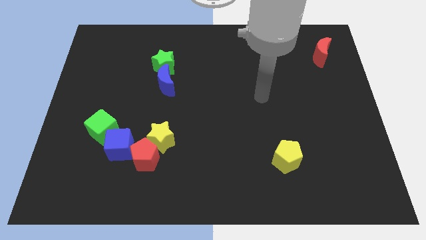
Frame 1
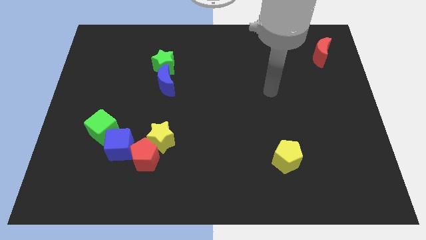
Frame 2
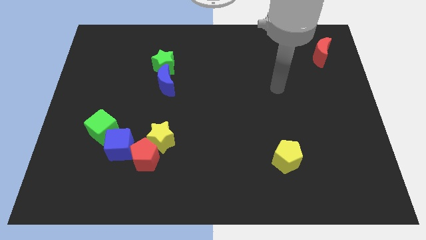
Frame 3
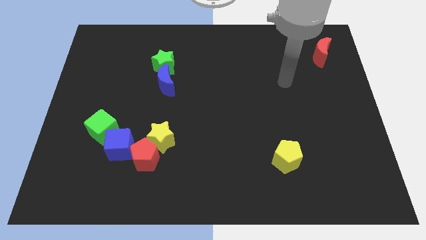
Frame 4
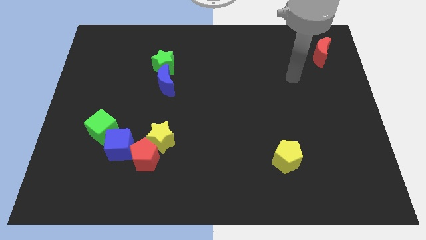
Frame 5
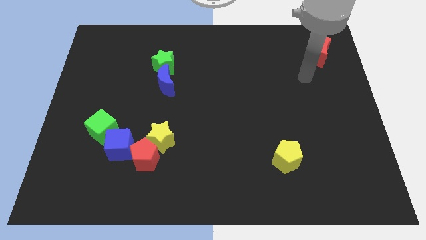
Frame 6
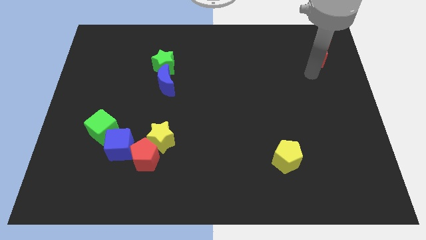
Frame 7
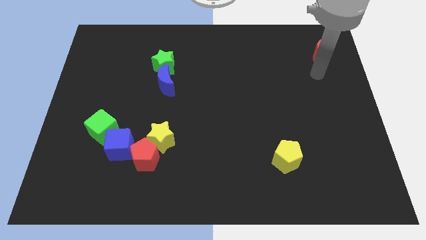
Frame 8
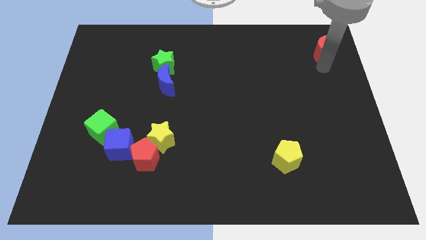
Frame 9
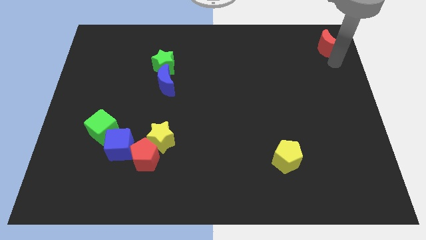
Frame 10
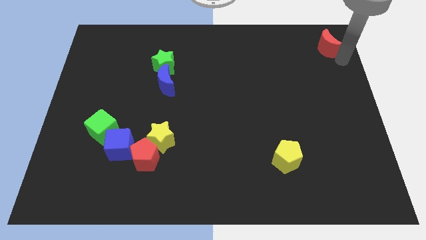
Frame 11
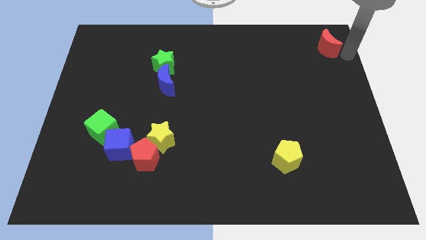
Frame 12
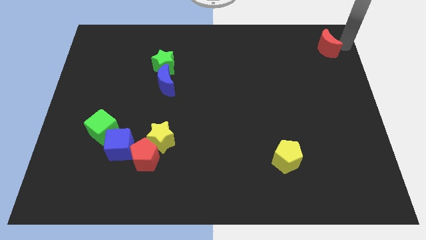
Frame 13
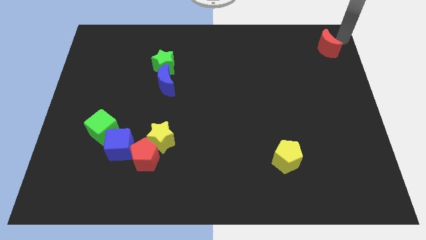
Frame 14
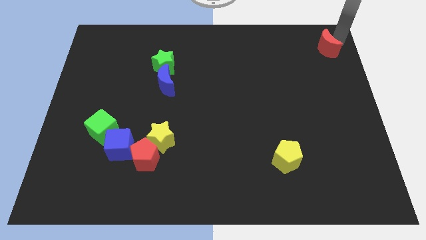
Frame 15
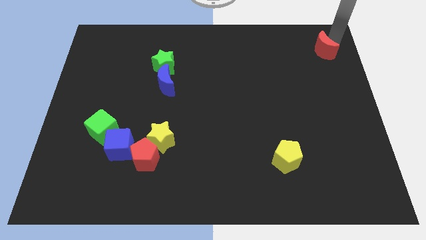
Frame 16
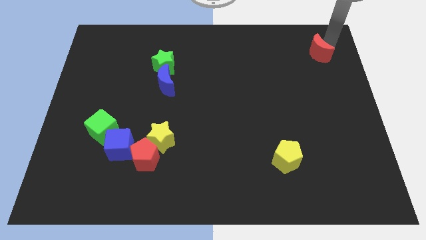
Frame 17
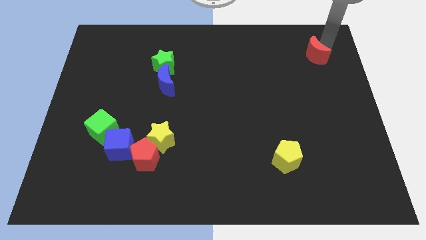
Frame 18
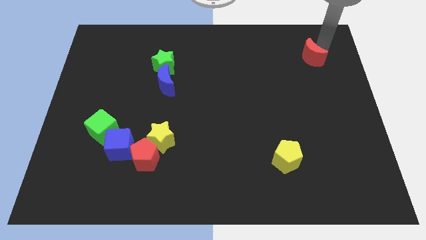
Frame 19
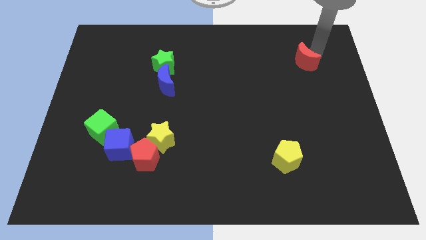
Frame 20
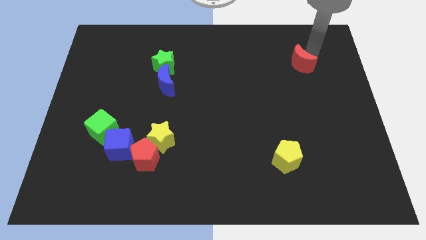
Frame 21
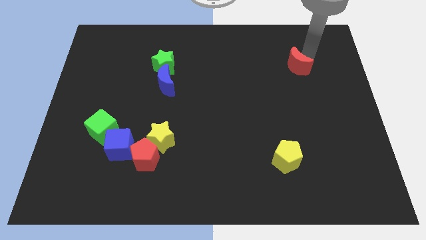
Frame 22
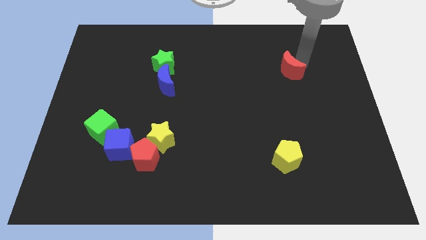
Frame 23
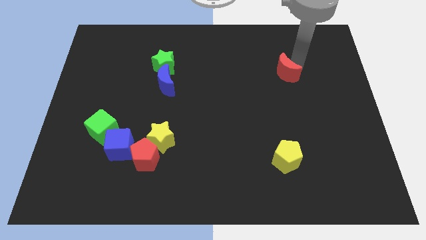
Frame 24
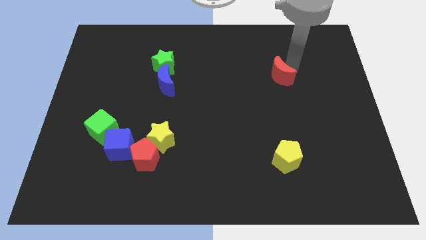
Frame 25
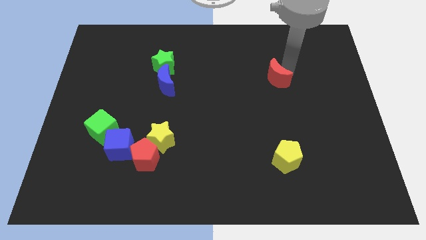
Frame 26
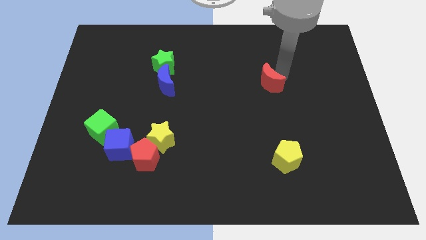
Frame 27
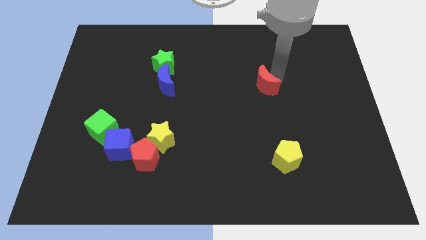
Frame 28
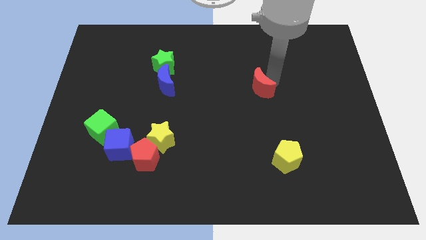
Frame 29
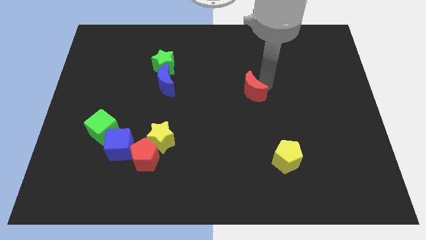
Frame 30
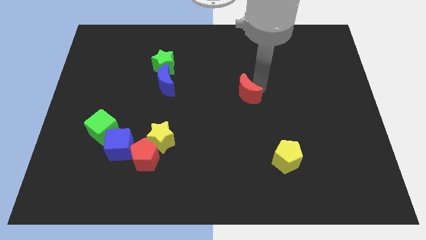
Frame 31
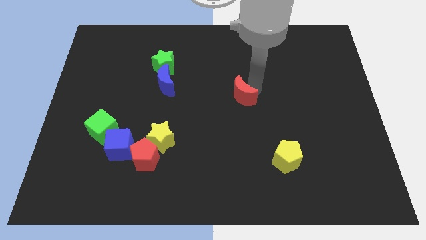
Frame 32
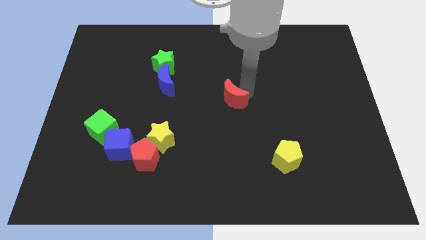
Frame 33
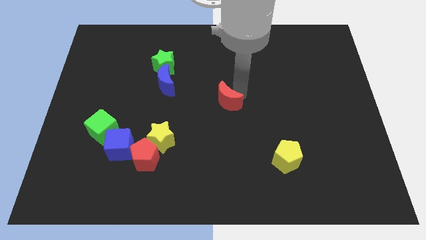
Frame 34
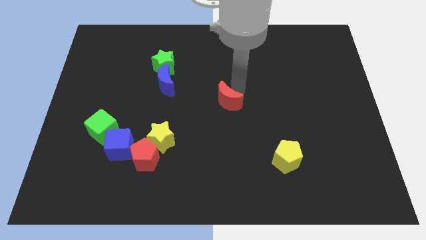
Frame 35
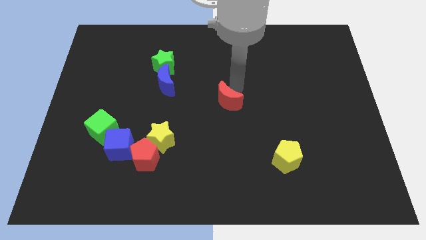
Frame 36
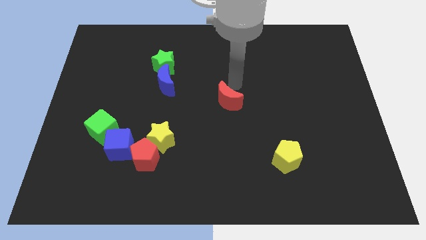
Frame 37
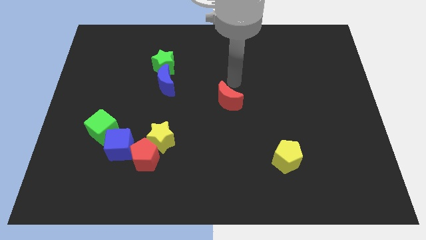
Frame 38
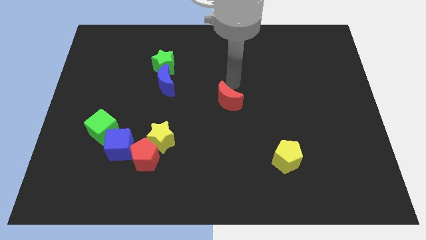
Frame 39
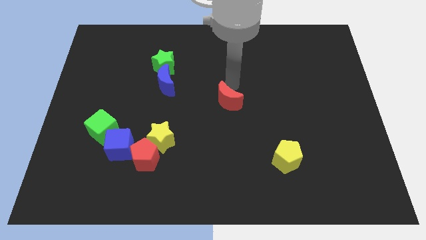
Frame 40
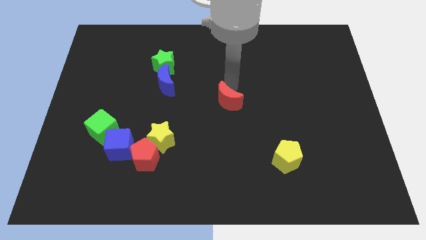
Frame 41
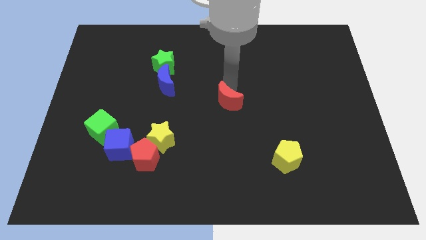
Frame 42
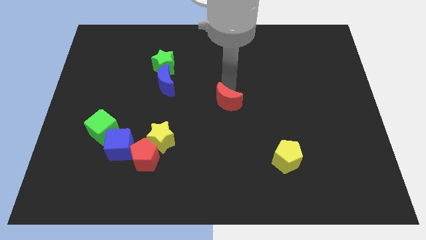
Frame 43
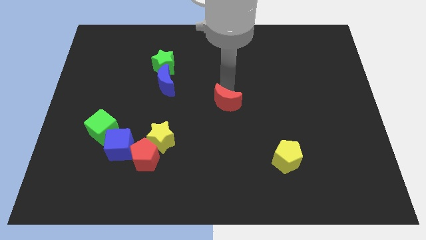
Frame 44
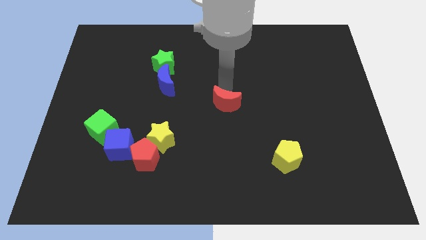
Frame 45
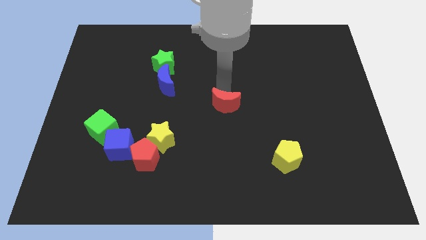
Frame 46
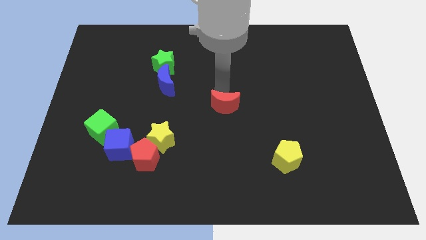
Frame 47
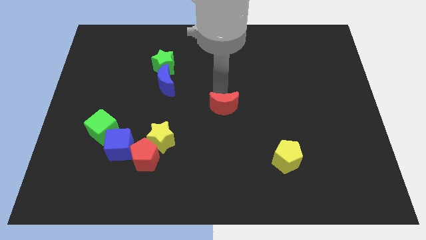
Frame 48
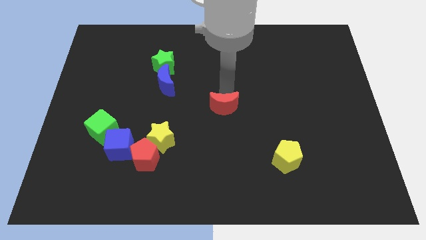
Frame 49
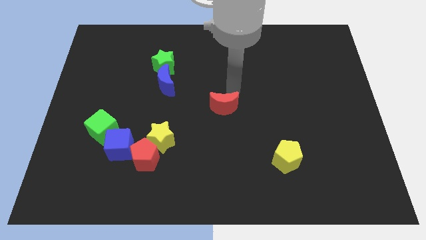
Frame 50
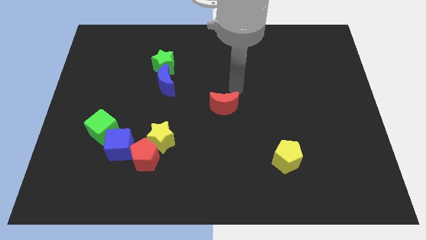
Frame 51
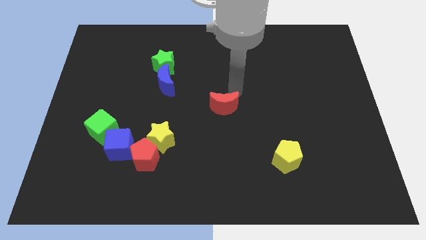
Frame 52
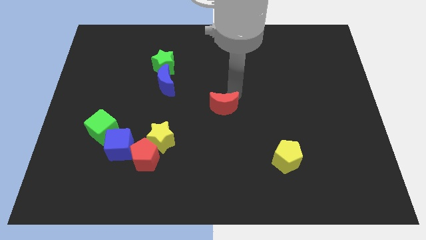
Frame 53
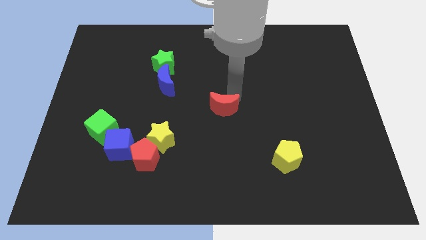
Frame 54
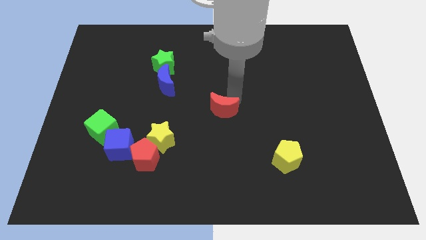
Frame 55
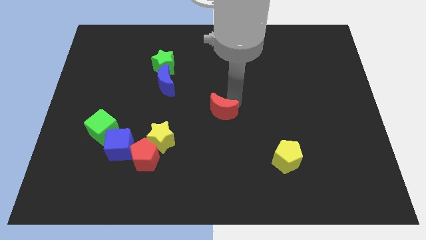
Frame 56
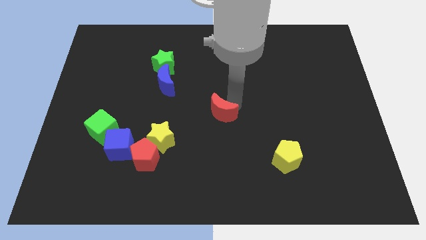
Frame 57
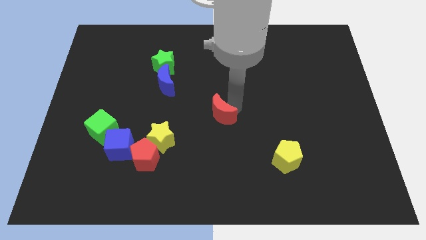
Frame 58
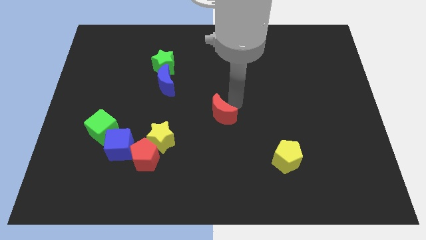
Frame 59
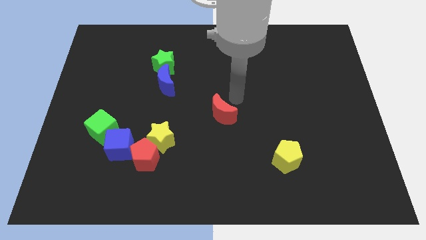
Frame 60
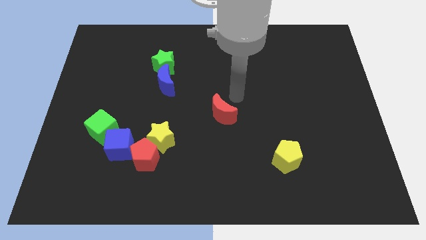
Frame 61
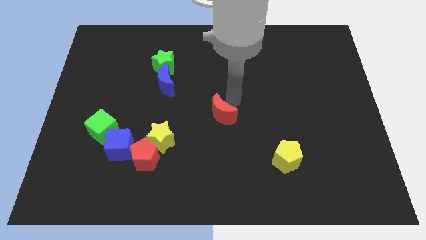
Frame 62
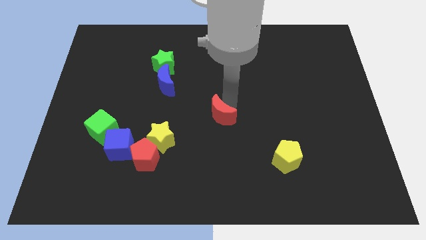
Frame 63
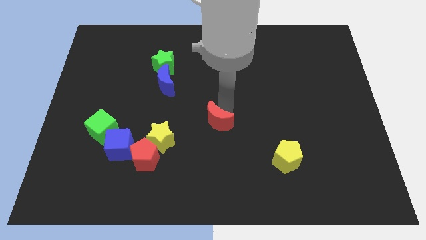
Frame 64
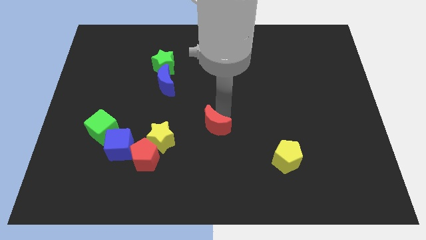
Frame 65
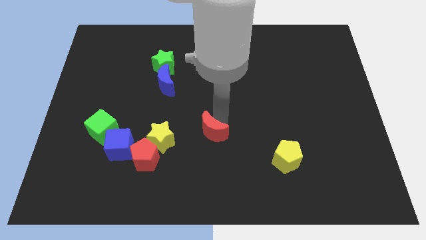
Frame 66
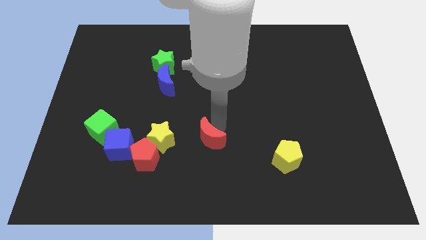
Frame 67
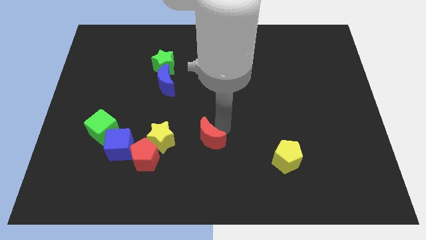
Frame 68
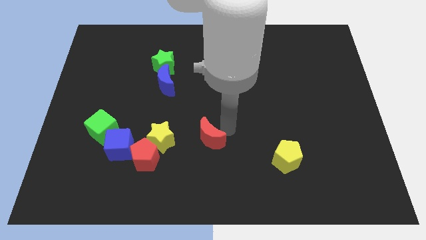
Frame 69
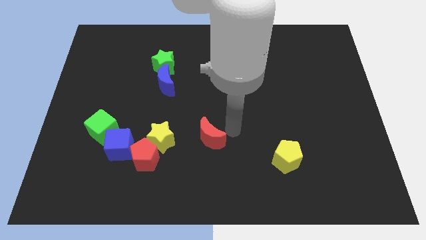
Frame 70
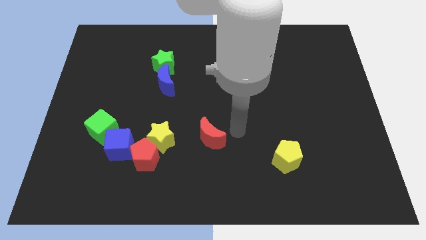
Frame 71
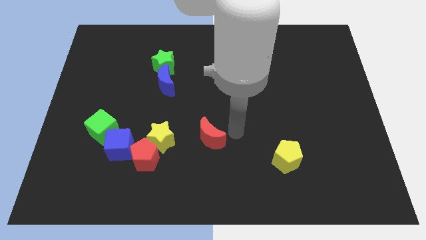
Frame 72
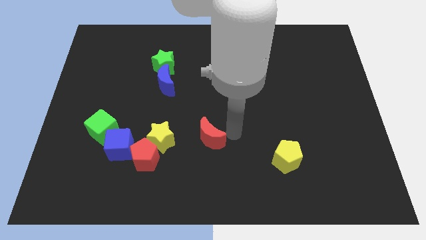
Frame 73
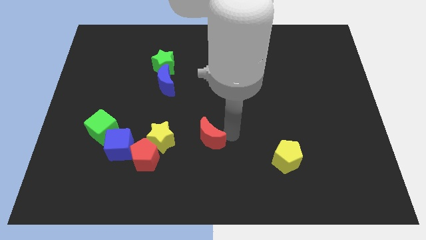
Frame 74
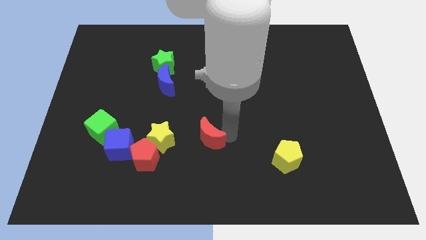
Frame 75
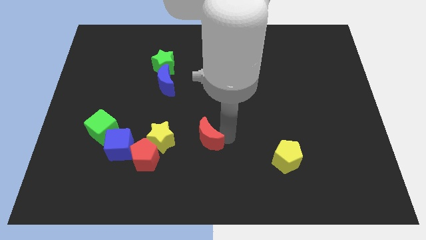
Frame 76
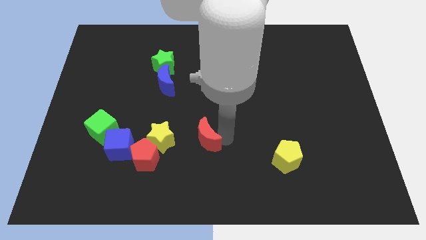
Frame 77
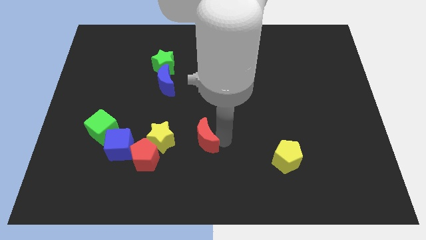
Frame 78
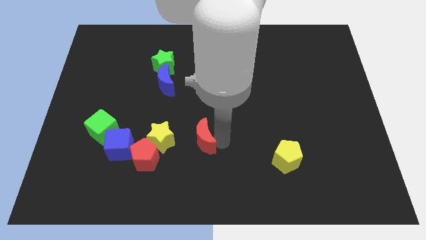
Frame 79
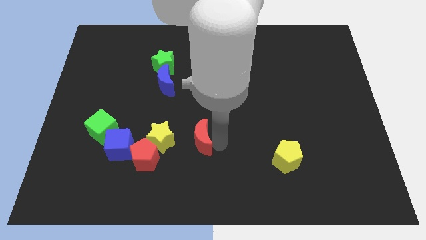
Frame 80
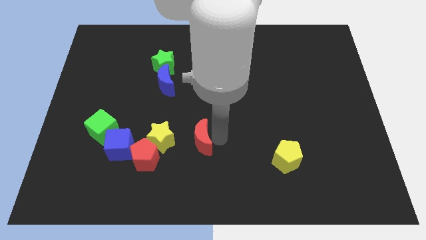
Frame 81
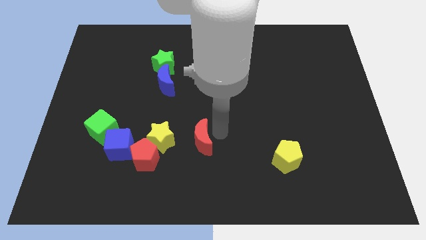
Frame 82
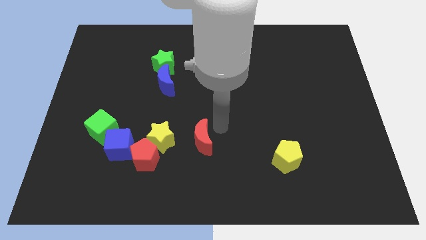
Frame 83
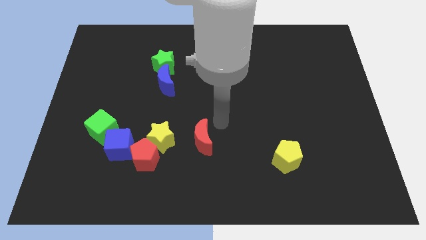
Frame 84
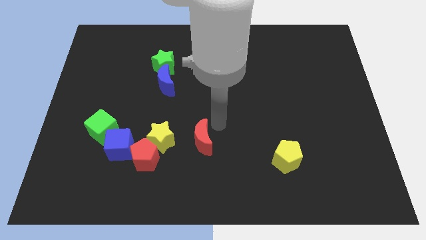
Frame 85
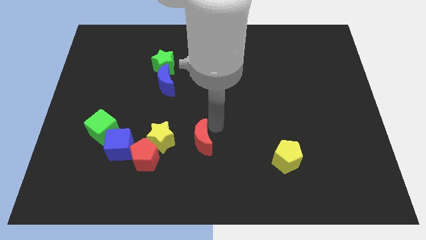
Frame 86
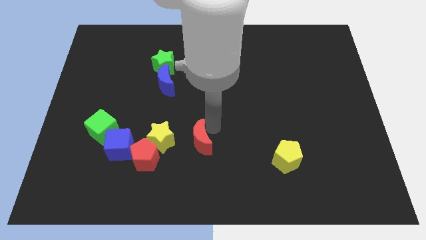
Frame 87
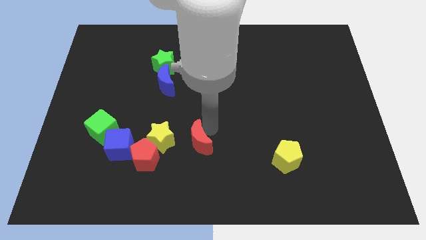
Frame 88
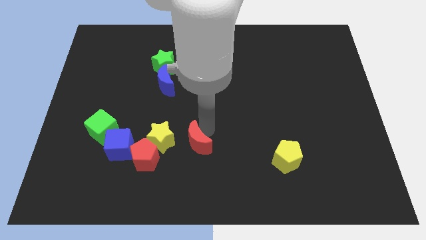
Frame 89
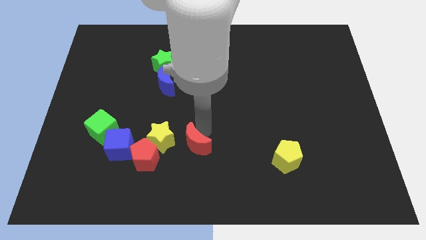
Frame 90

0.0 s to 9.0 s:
move the red moon to the bottom right side of the yellow star
